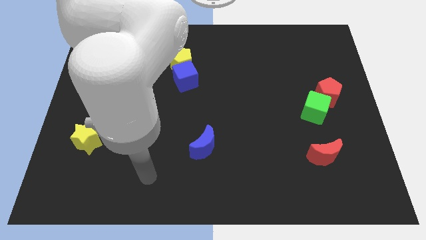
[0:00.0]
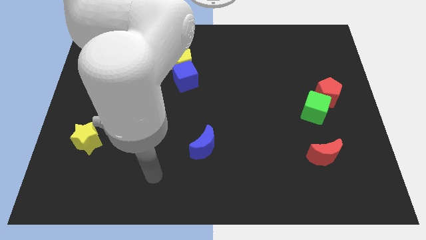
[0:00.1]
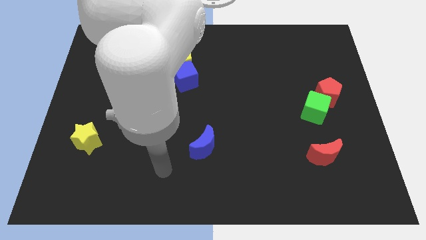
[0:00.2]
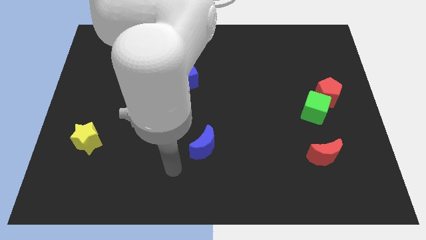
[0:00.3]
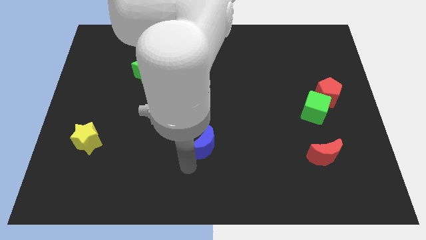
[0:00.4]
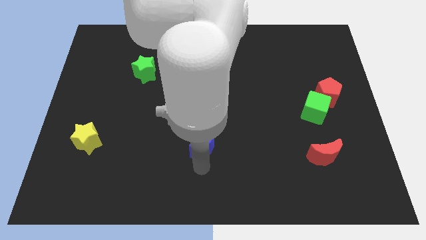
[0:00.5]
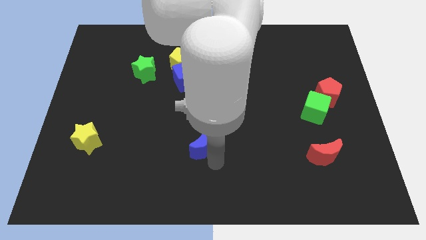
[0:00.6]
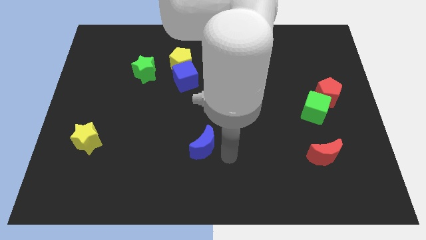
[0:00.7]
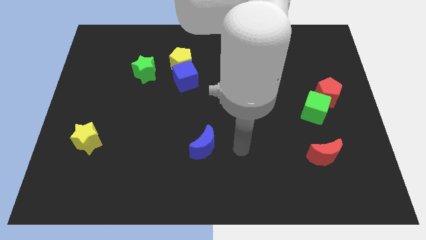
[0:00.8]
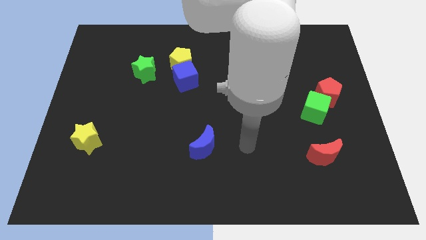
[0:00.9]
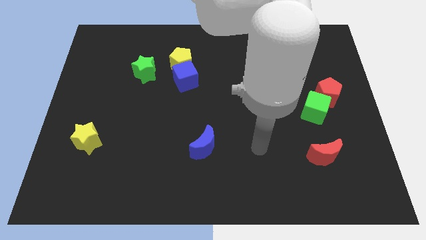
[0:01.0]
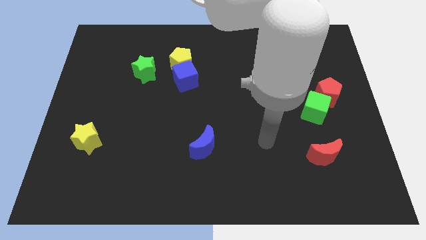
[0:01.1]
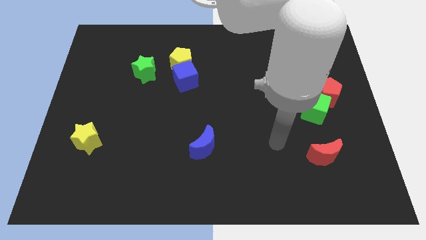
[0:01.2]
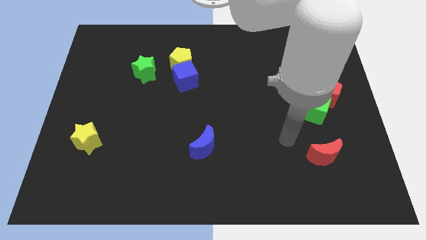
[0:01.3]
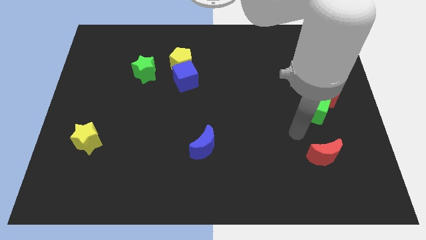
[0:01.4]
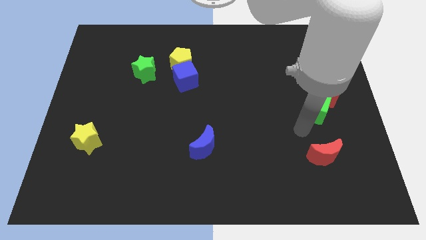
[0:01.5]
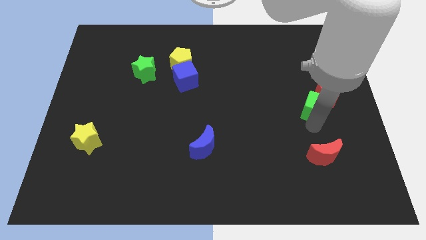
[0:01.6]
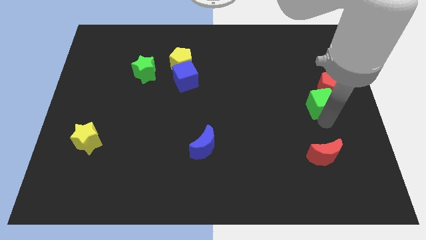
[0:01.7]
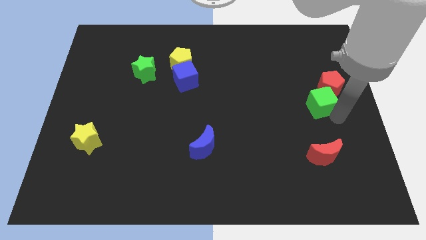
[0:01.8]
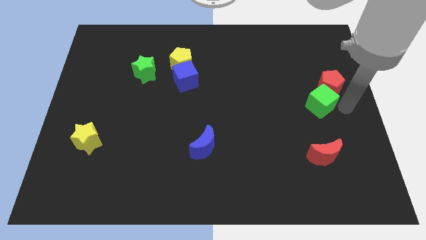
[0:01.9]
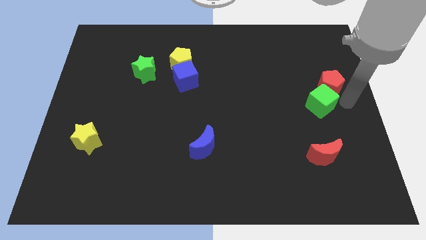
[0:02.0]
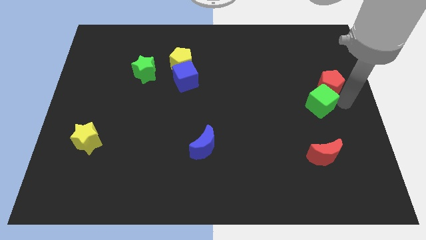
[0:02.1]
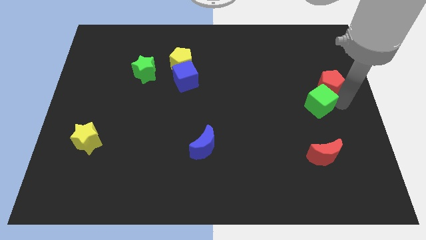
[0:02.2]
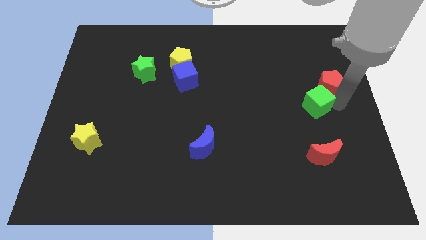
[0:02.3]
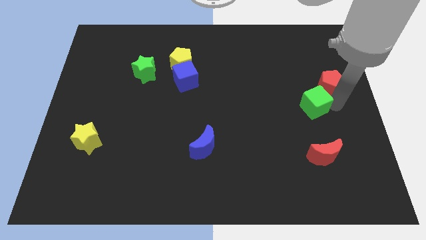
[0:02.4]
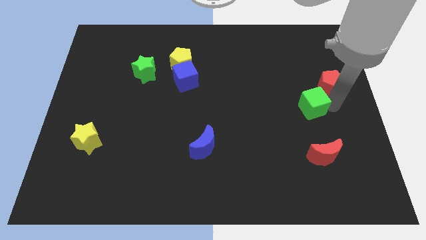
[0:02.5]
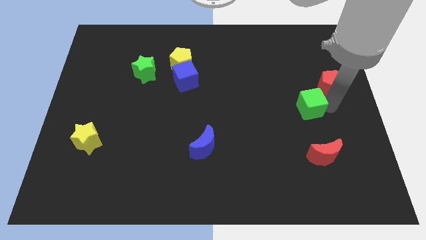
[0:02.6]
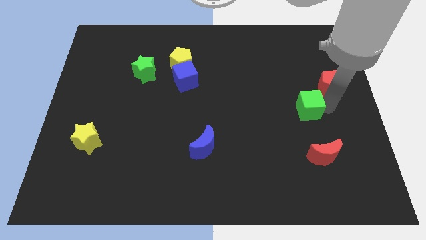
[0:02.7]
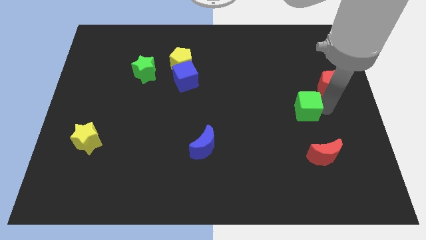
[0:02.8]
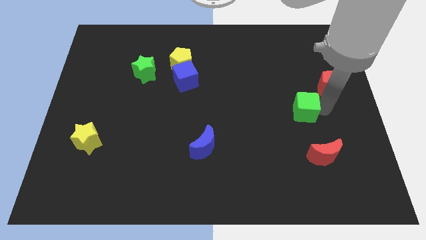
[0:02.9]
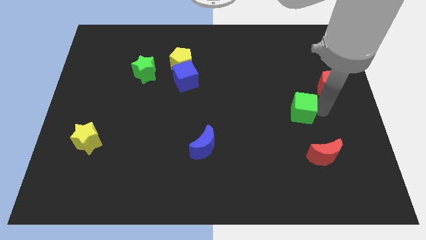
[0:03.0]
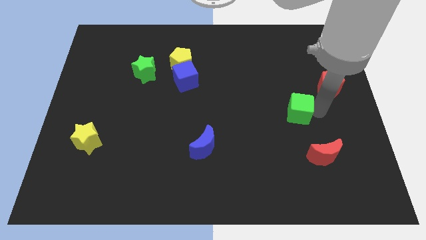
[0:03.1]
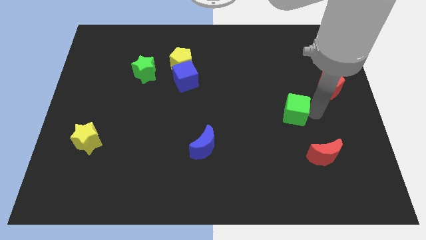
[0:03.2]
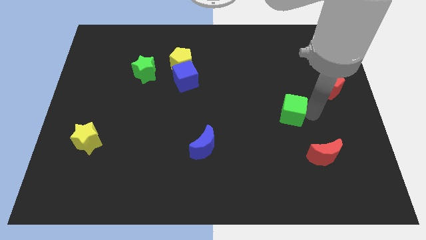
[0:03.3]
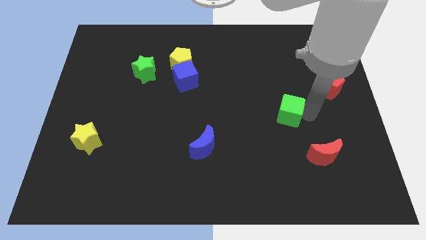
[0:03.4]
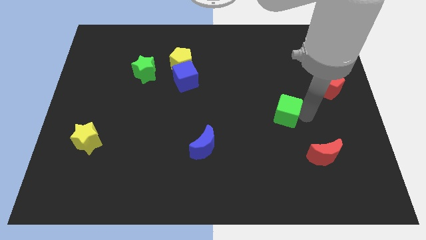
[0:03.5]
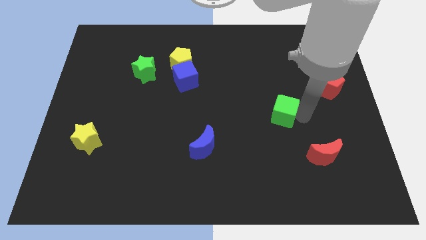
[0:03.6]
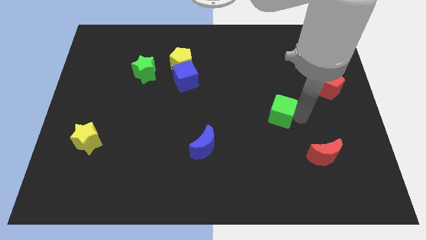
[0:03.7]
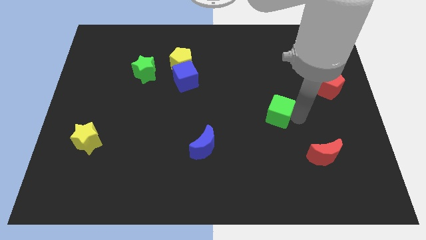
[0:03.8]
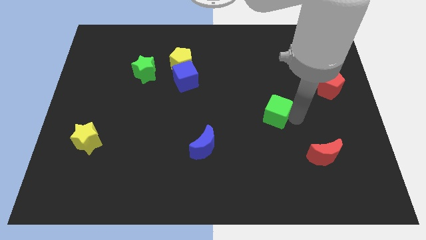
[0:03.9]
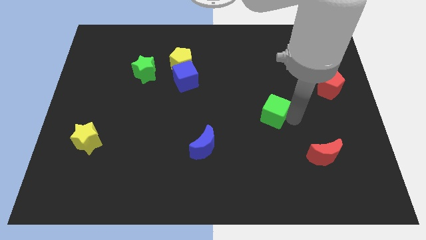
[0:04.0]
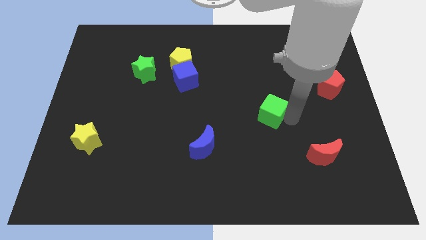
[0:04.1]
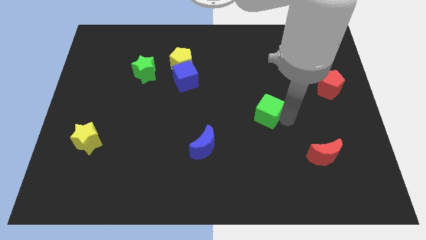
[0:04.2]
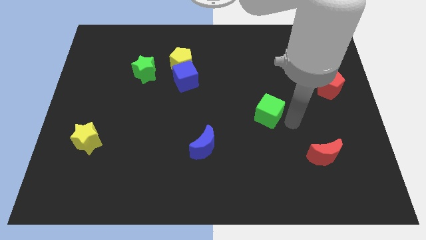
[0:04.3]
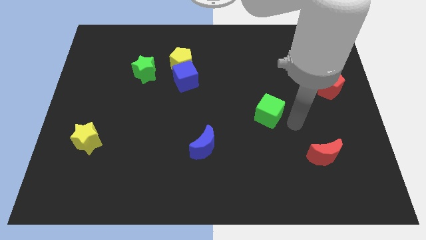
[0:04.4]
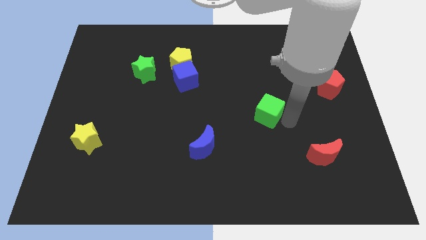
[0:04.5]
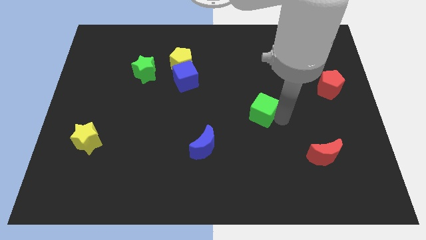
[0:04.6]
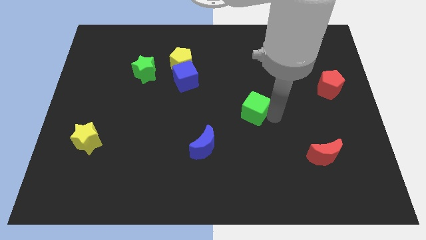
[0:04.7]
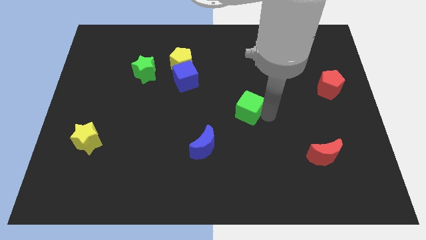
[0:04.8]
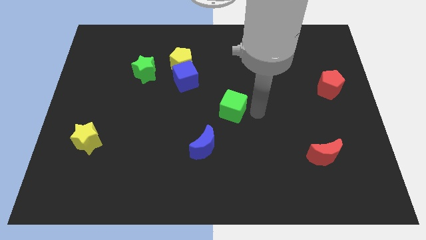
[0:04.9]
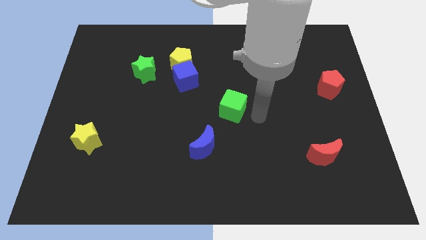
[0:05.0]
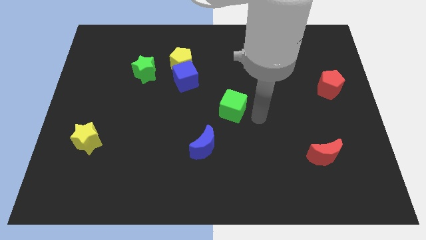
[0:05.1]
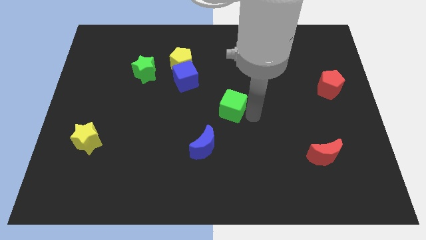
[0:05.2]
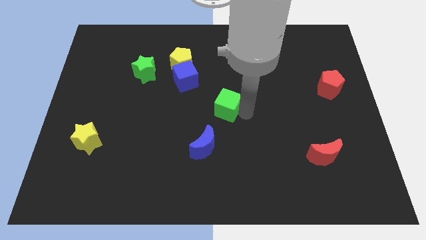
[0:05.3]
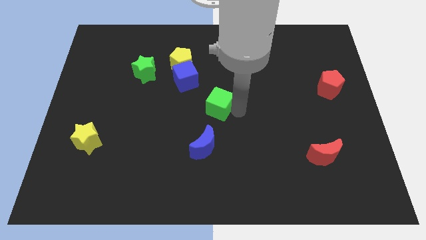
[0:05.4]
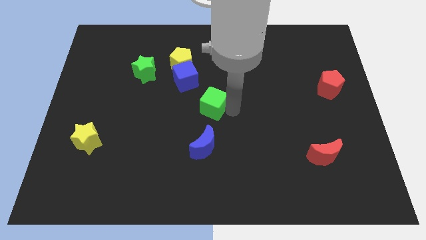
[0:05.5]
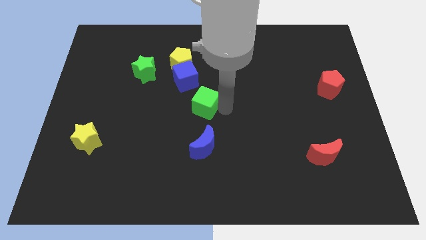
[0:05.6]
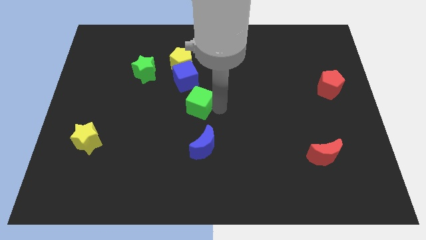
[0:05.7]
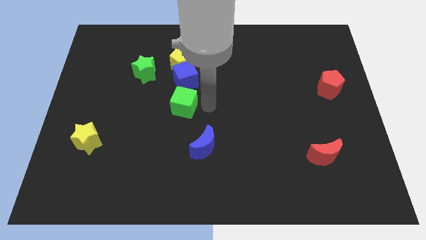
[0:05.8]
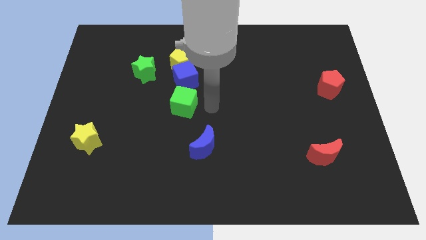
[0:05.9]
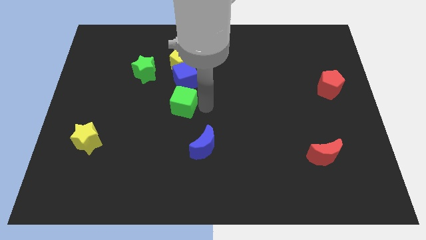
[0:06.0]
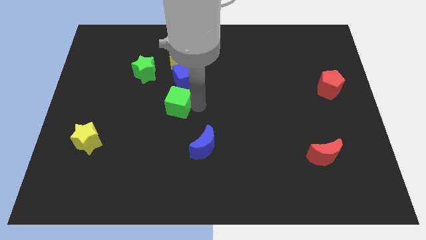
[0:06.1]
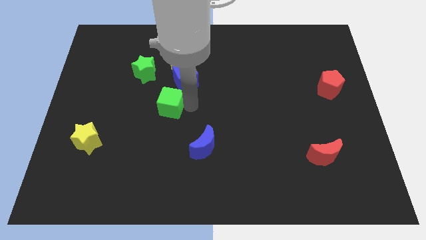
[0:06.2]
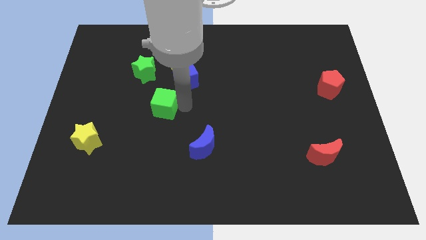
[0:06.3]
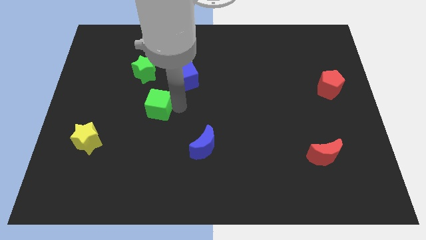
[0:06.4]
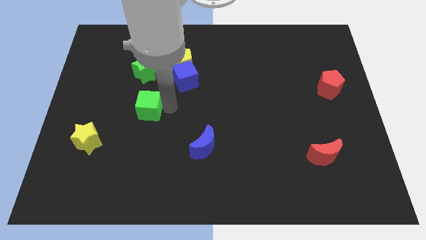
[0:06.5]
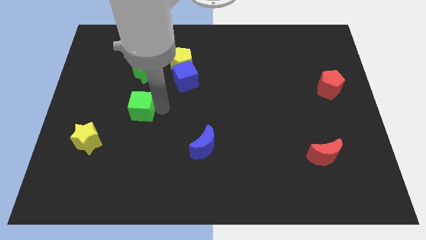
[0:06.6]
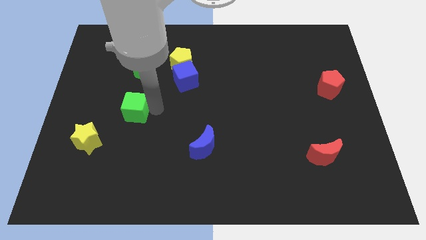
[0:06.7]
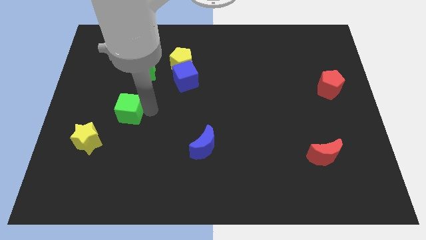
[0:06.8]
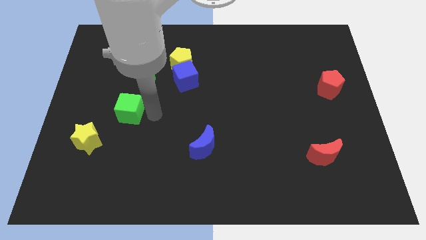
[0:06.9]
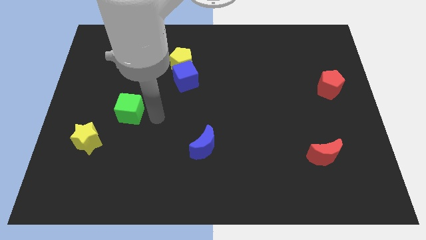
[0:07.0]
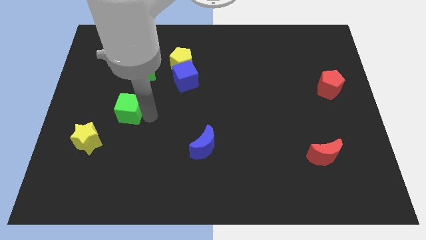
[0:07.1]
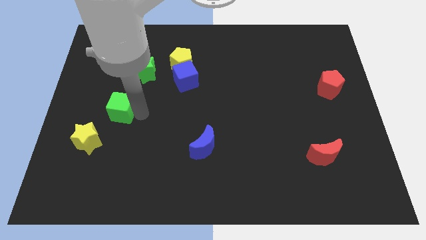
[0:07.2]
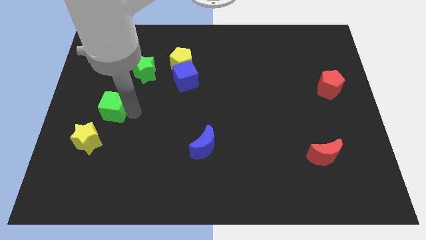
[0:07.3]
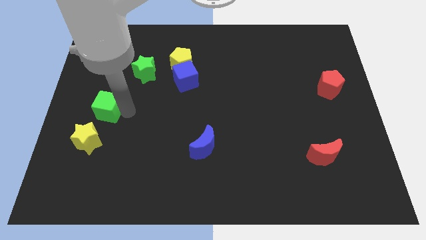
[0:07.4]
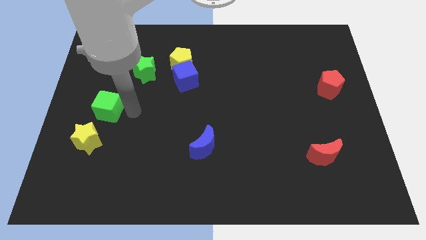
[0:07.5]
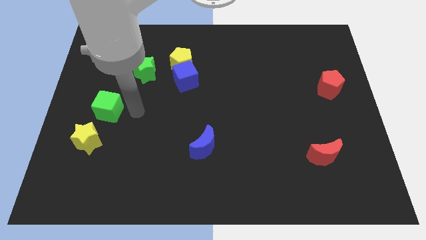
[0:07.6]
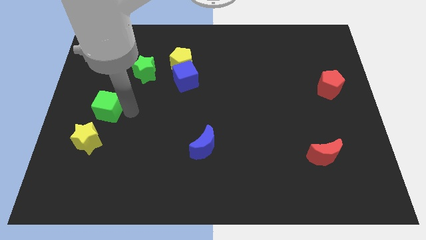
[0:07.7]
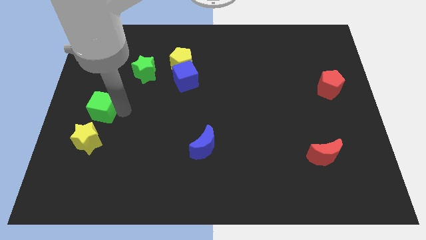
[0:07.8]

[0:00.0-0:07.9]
move the green cube to the center left

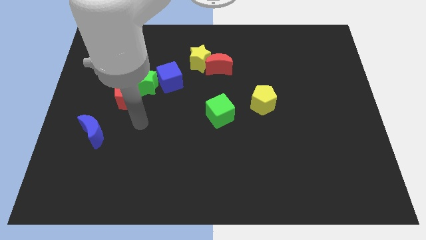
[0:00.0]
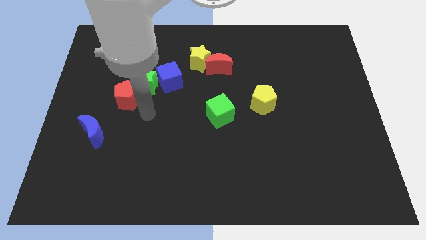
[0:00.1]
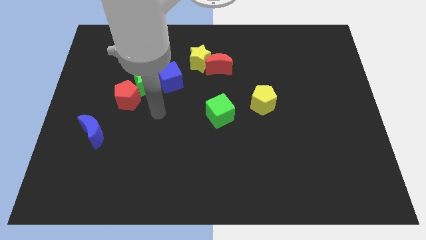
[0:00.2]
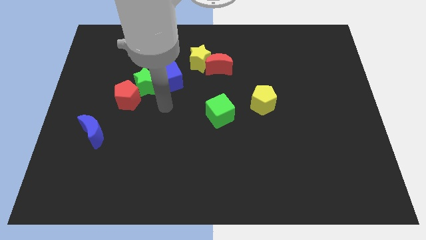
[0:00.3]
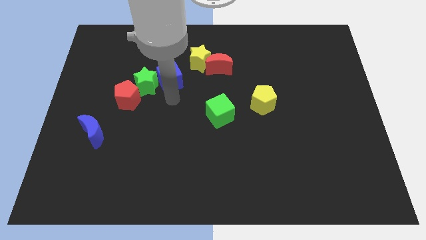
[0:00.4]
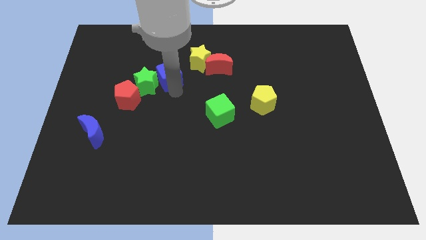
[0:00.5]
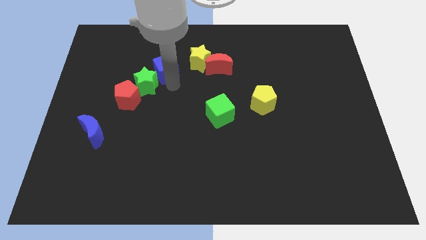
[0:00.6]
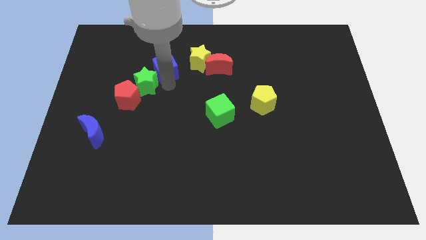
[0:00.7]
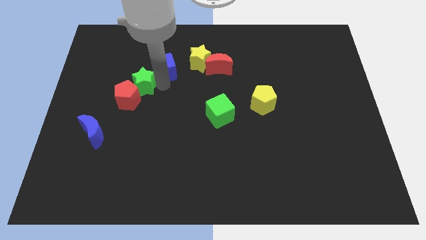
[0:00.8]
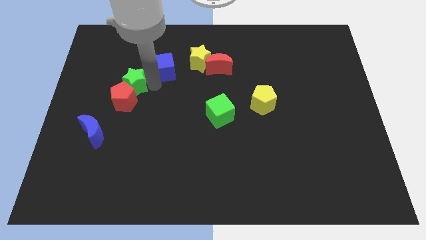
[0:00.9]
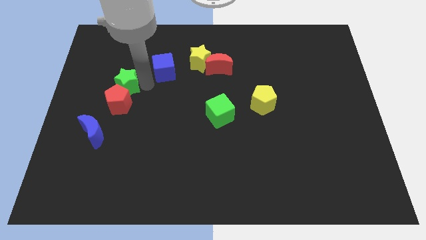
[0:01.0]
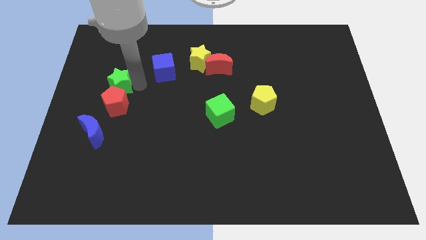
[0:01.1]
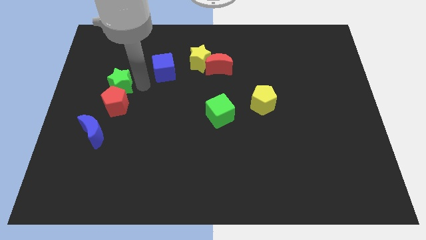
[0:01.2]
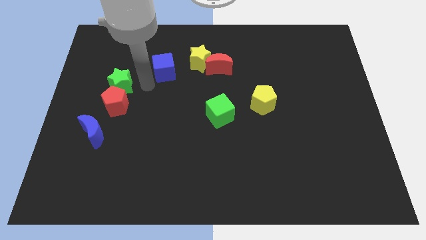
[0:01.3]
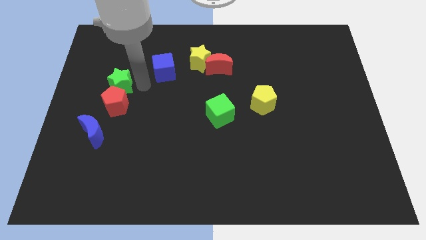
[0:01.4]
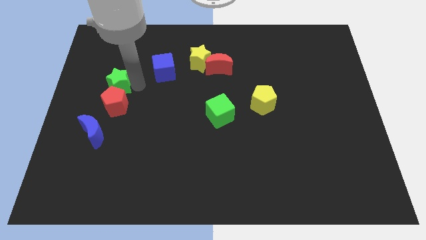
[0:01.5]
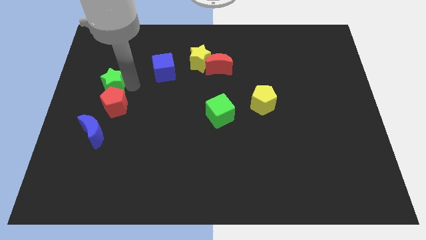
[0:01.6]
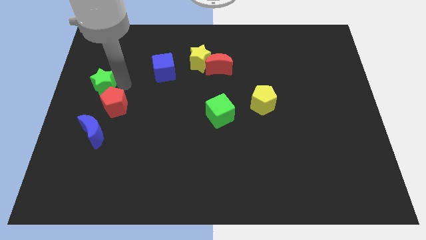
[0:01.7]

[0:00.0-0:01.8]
slide the green star to the left side of the board
